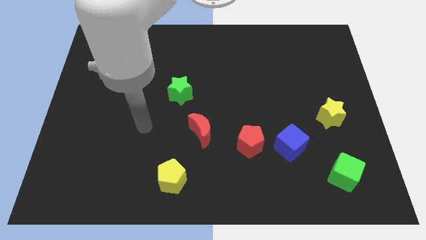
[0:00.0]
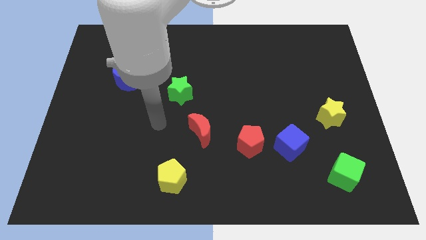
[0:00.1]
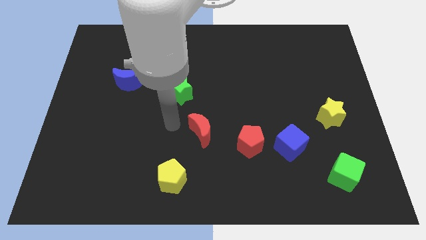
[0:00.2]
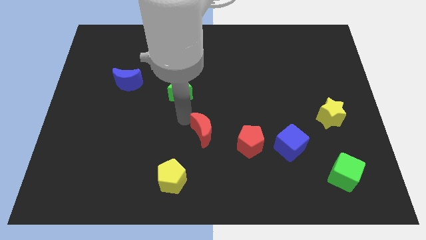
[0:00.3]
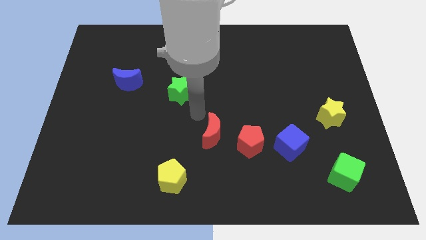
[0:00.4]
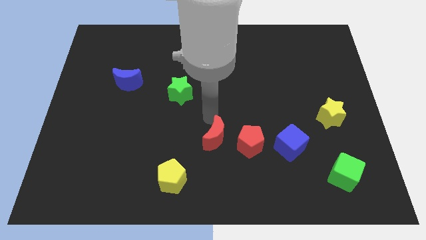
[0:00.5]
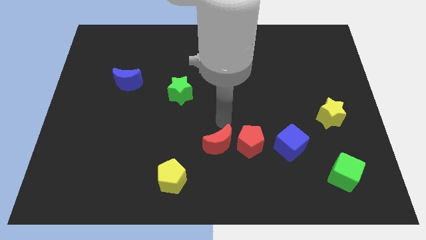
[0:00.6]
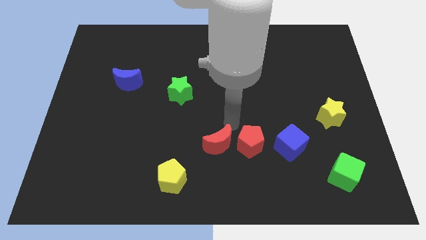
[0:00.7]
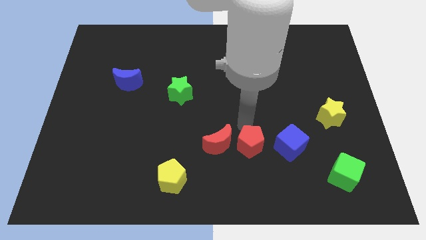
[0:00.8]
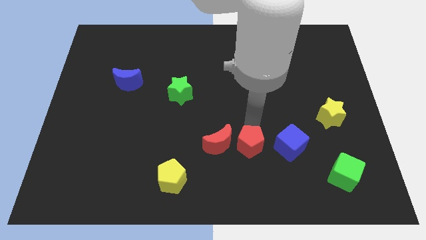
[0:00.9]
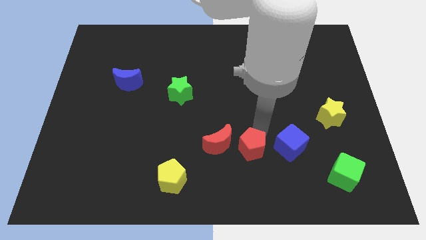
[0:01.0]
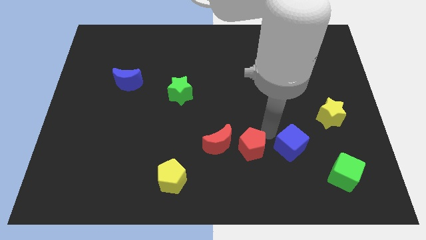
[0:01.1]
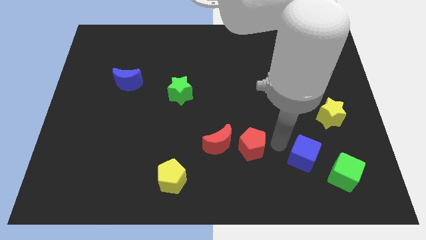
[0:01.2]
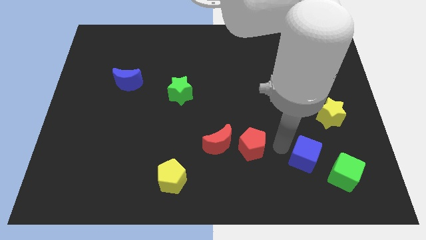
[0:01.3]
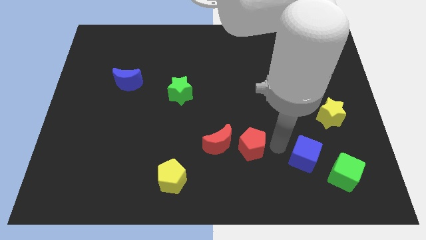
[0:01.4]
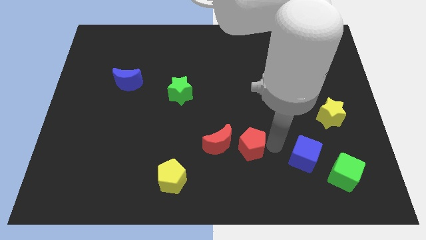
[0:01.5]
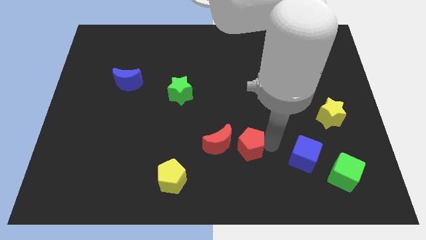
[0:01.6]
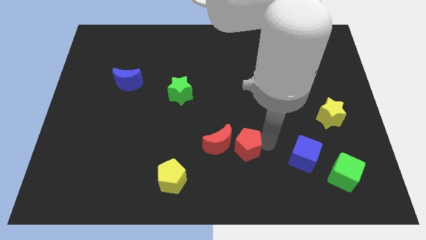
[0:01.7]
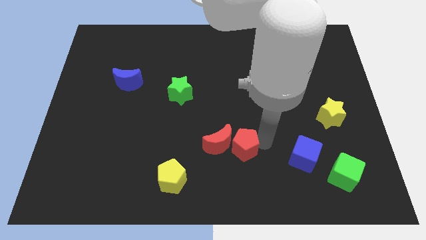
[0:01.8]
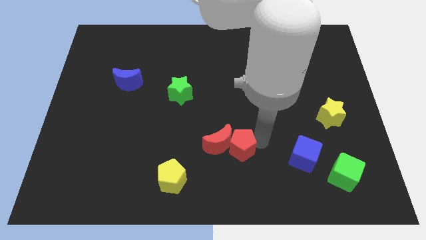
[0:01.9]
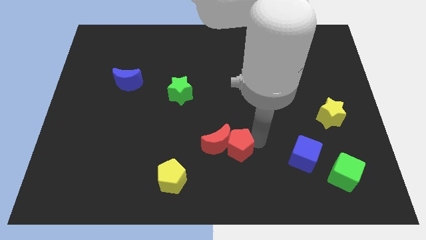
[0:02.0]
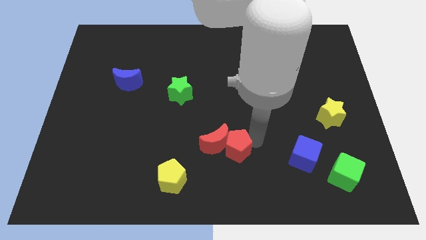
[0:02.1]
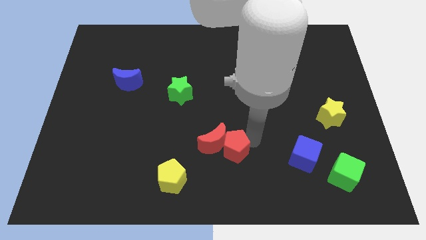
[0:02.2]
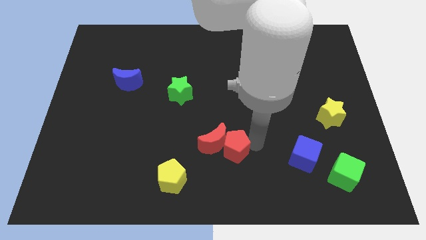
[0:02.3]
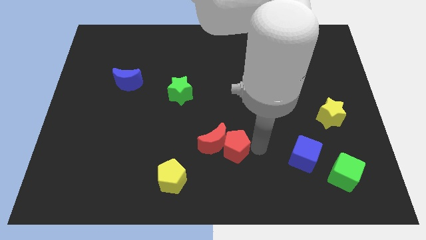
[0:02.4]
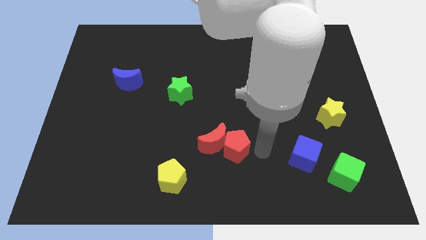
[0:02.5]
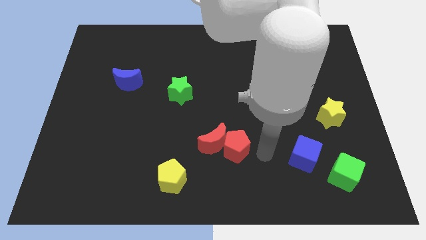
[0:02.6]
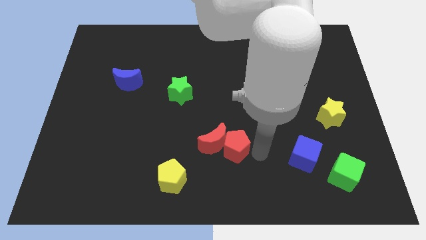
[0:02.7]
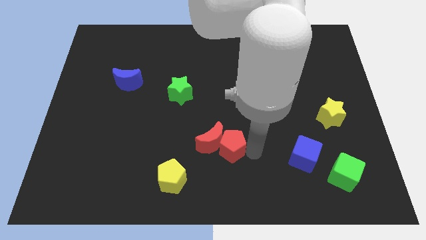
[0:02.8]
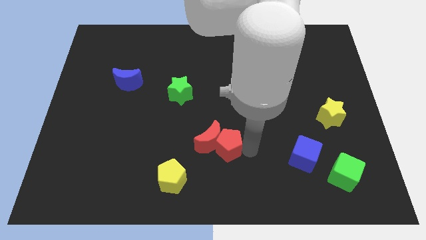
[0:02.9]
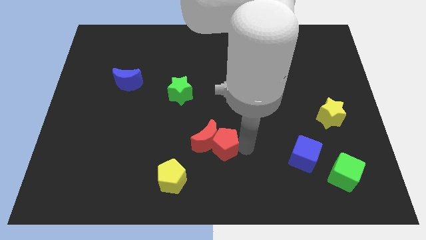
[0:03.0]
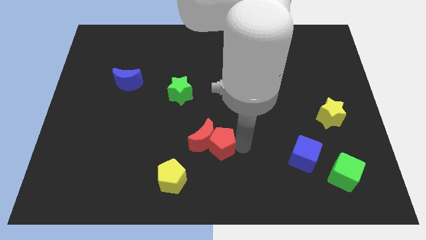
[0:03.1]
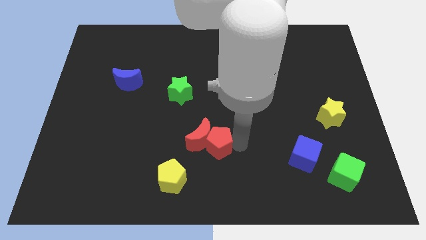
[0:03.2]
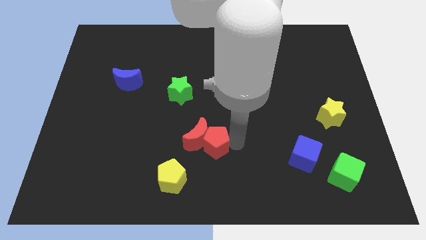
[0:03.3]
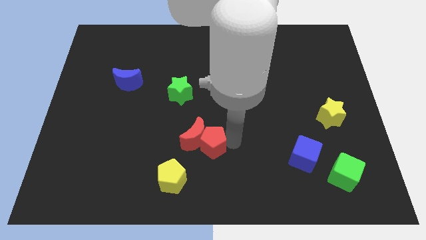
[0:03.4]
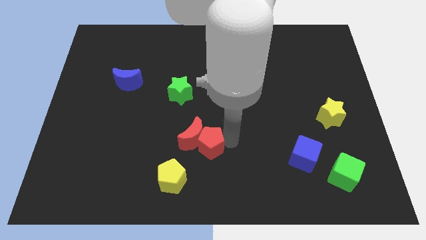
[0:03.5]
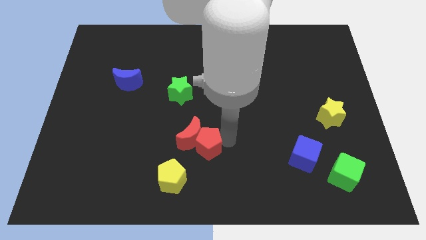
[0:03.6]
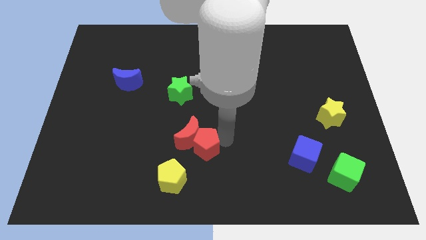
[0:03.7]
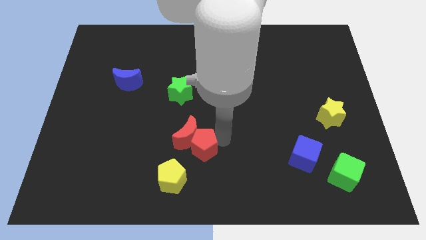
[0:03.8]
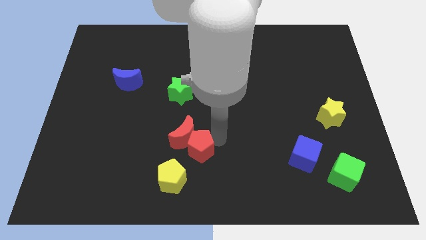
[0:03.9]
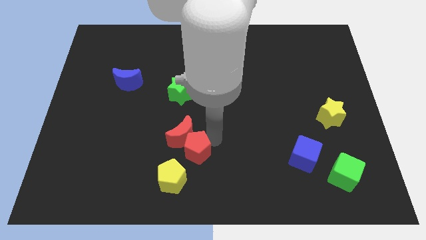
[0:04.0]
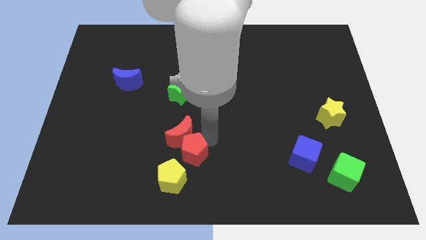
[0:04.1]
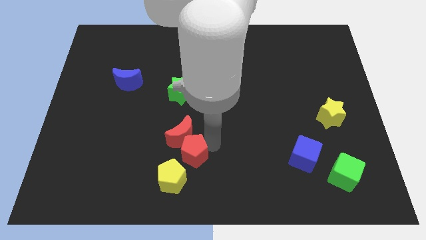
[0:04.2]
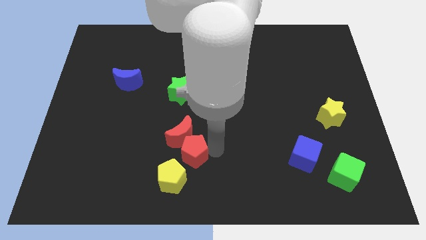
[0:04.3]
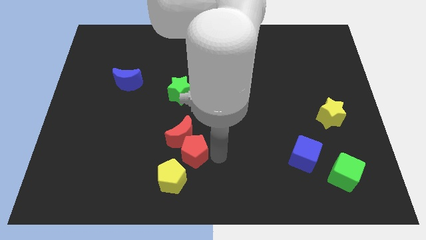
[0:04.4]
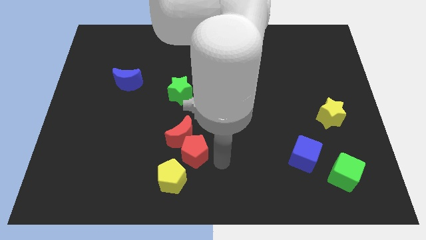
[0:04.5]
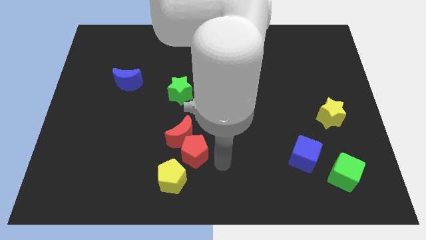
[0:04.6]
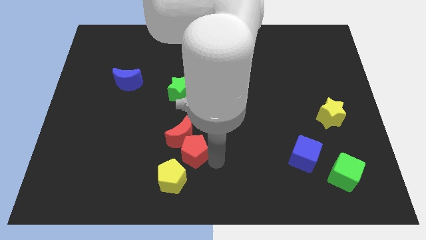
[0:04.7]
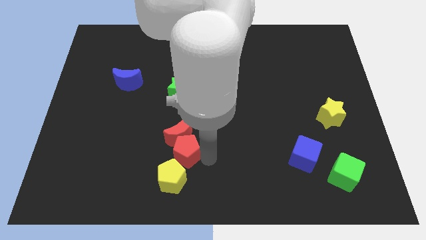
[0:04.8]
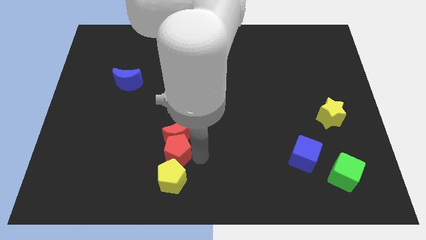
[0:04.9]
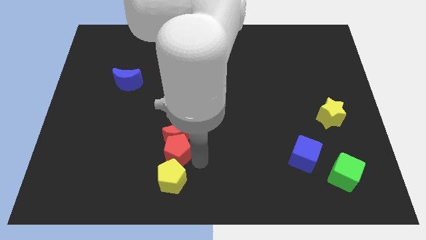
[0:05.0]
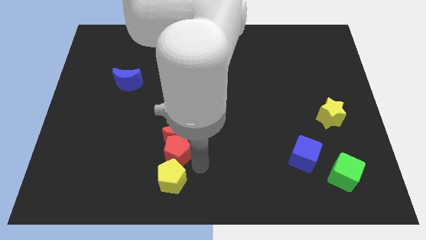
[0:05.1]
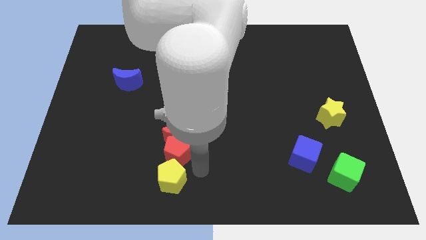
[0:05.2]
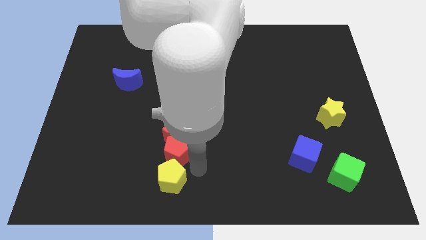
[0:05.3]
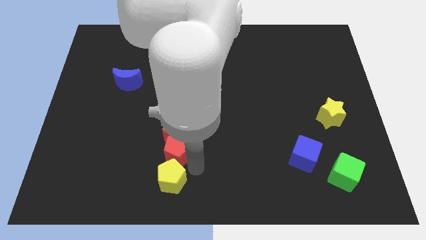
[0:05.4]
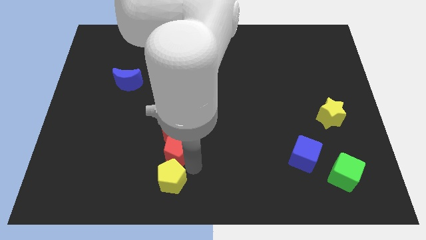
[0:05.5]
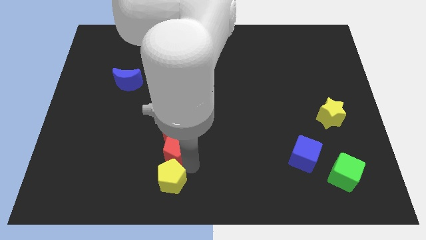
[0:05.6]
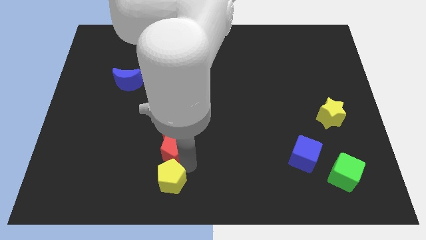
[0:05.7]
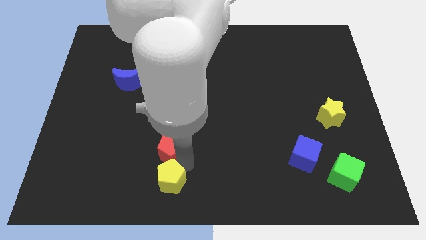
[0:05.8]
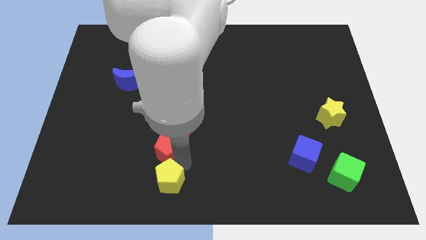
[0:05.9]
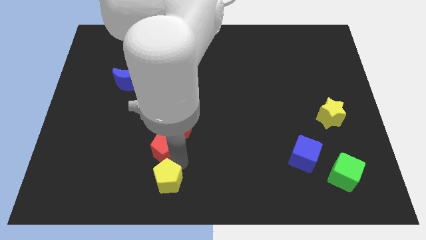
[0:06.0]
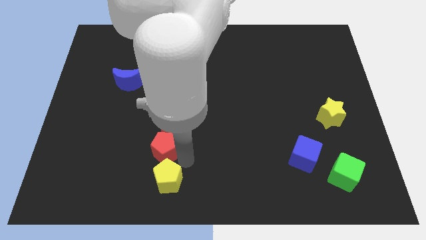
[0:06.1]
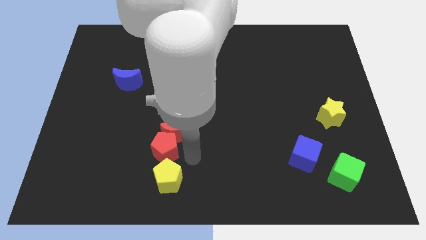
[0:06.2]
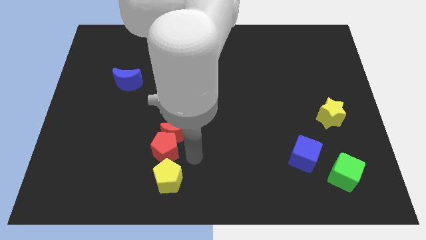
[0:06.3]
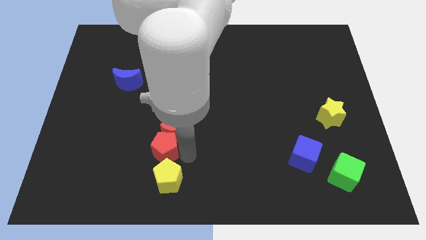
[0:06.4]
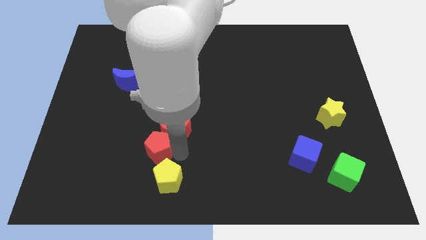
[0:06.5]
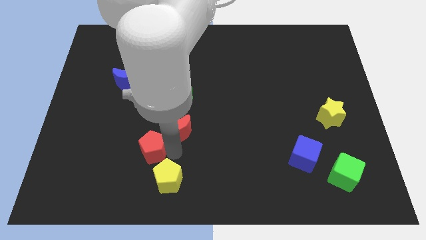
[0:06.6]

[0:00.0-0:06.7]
slide the red pentagon left

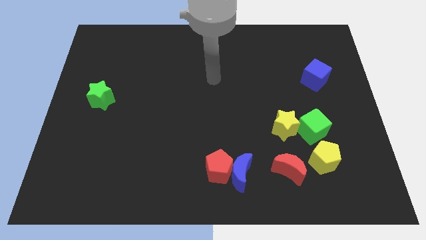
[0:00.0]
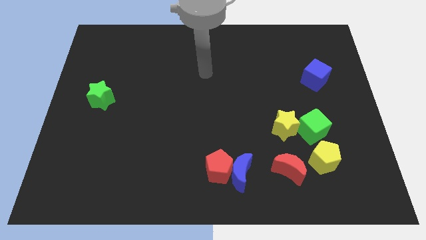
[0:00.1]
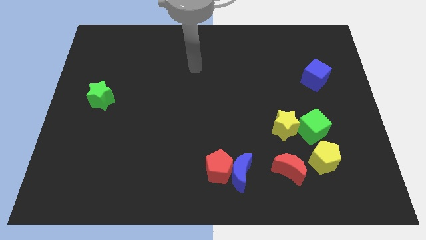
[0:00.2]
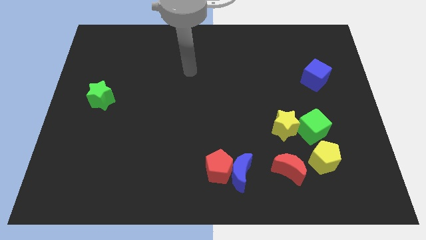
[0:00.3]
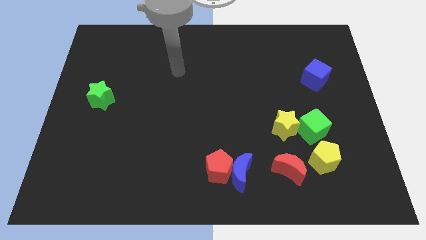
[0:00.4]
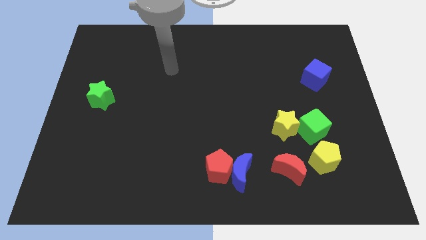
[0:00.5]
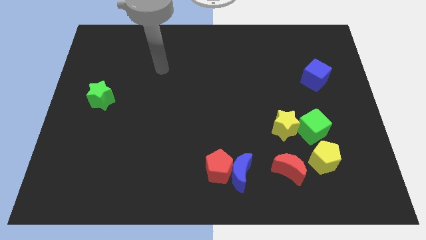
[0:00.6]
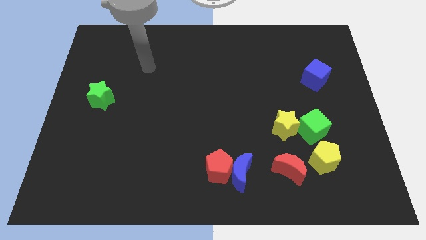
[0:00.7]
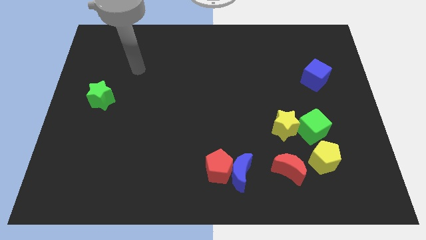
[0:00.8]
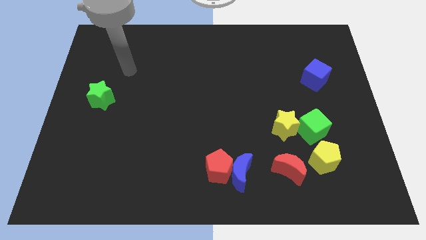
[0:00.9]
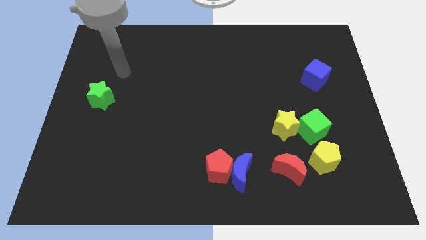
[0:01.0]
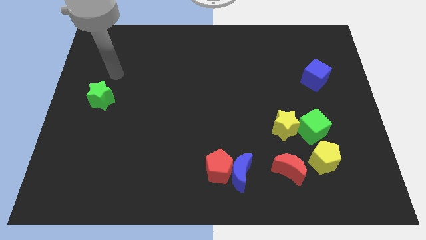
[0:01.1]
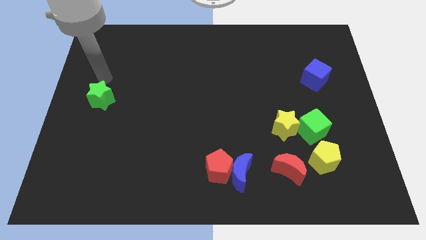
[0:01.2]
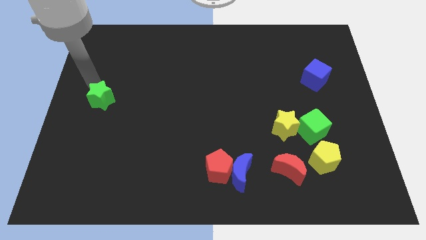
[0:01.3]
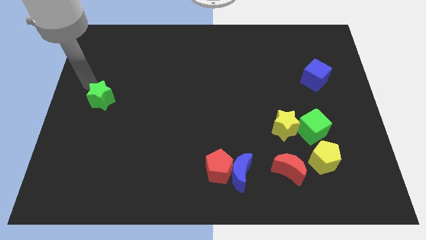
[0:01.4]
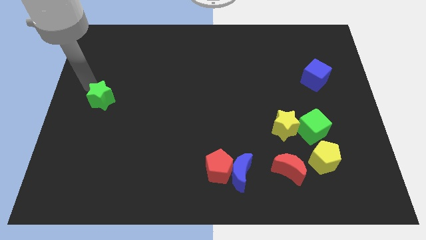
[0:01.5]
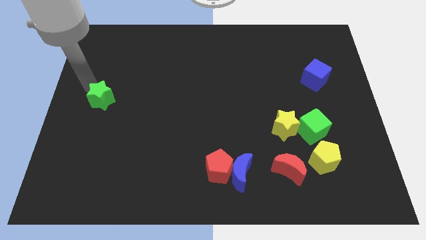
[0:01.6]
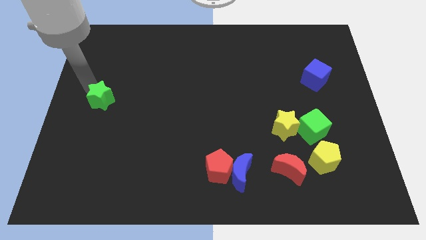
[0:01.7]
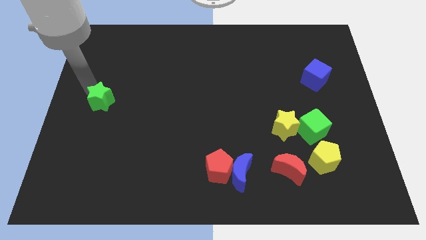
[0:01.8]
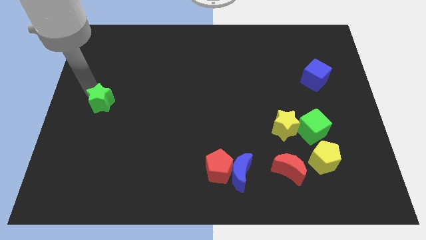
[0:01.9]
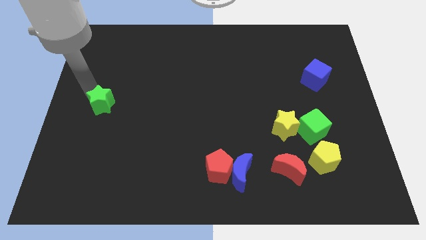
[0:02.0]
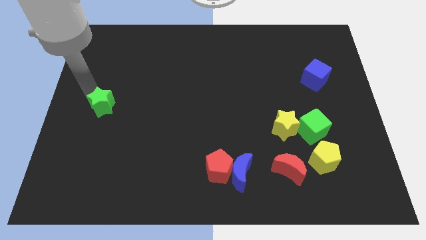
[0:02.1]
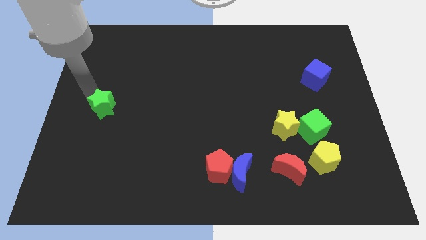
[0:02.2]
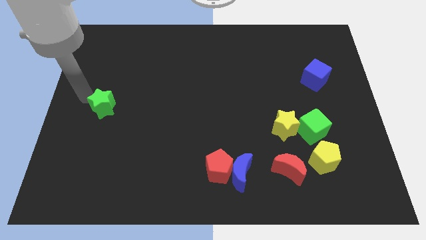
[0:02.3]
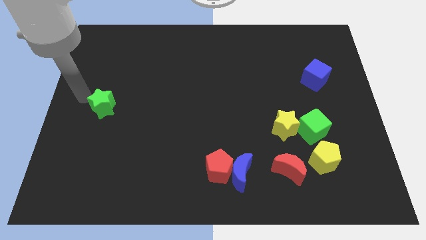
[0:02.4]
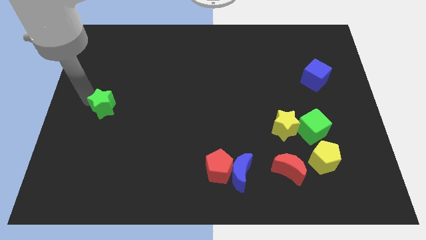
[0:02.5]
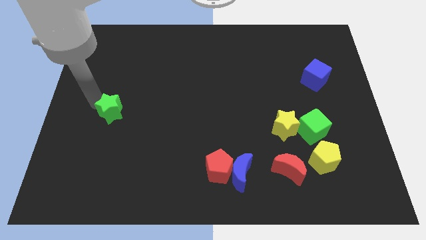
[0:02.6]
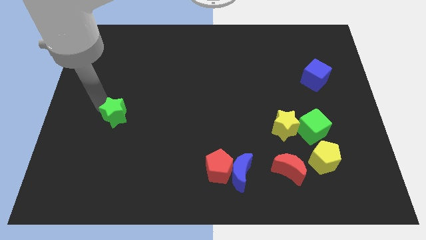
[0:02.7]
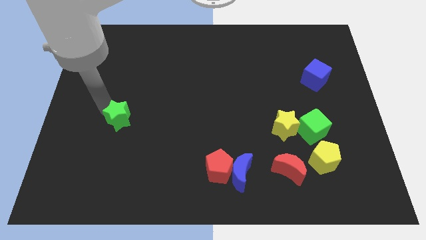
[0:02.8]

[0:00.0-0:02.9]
slide the green star a little bit down and to the right diagonally
